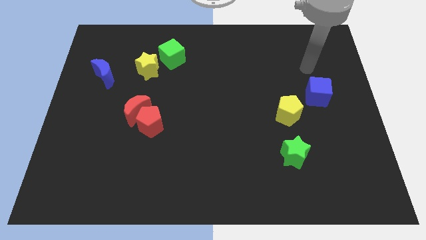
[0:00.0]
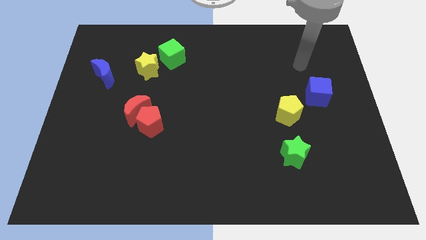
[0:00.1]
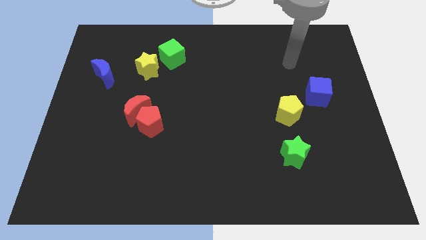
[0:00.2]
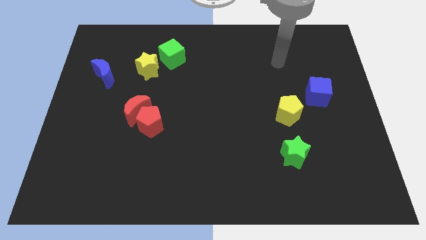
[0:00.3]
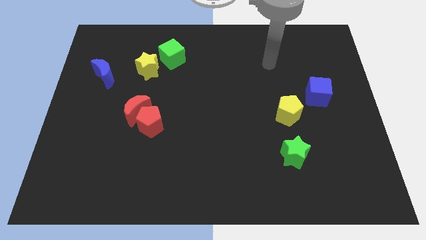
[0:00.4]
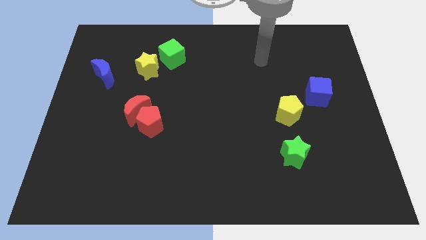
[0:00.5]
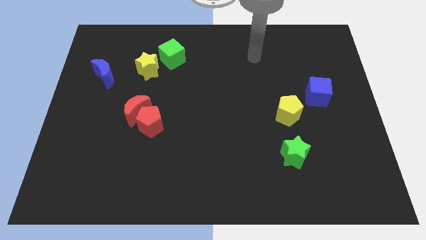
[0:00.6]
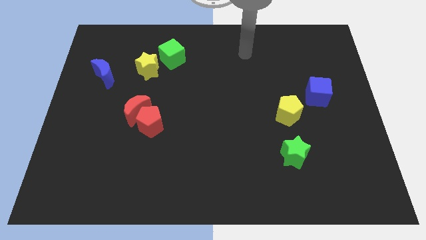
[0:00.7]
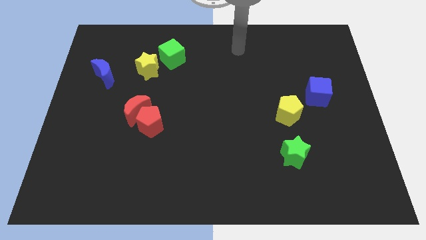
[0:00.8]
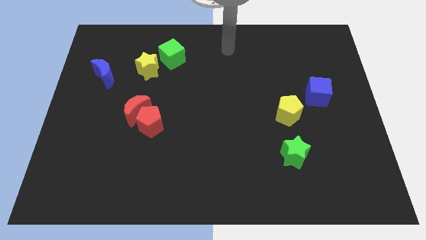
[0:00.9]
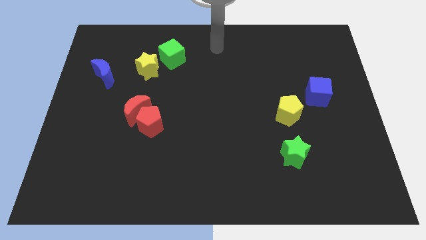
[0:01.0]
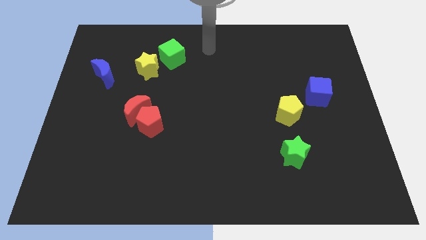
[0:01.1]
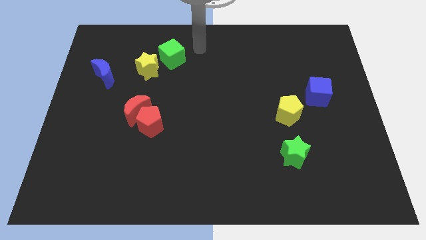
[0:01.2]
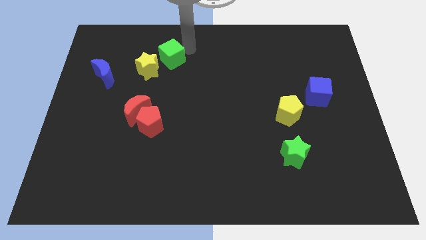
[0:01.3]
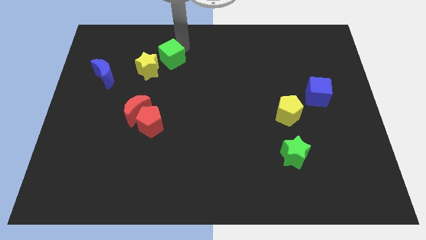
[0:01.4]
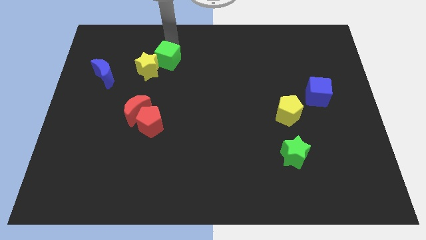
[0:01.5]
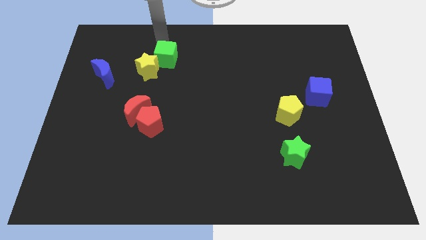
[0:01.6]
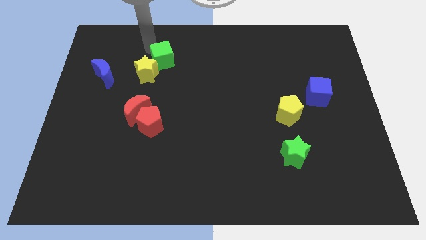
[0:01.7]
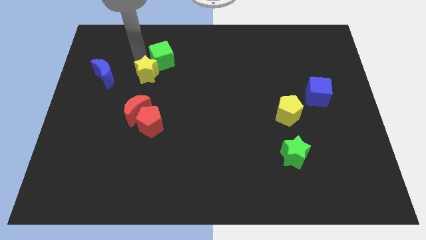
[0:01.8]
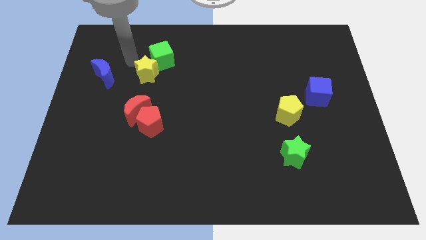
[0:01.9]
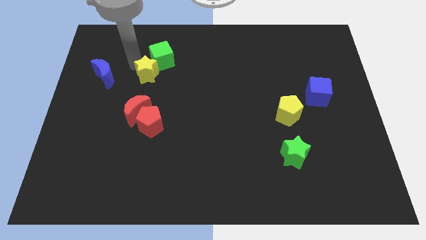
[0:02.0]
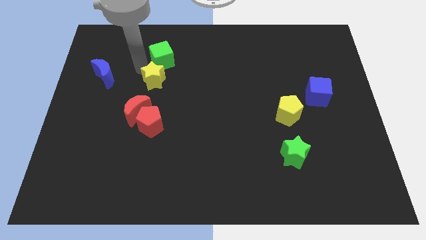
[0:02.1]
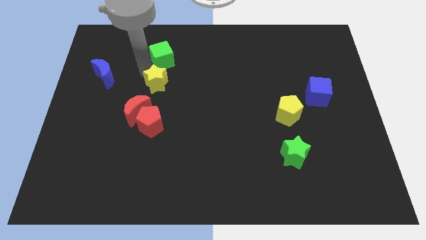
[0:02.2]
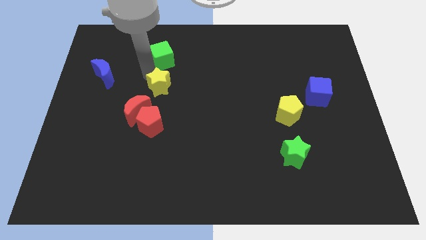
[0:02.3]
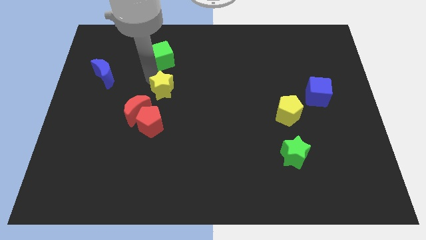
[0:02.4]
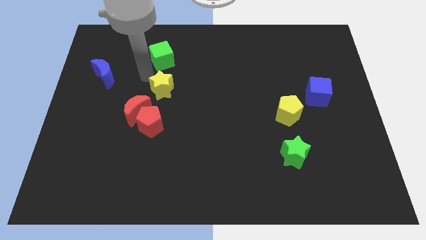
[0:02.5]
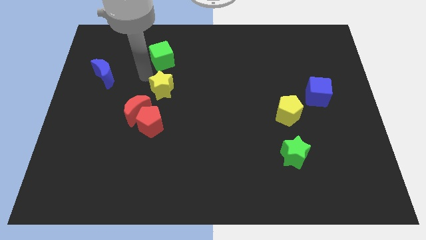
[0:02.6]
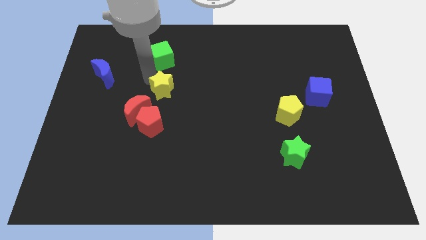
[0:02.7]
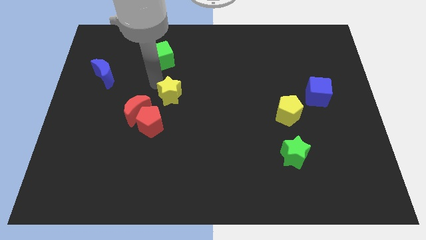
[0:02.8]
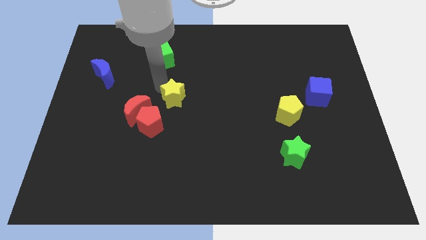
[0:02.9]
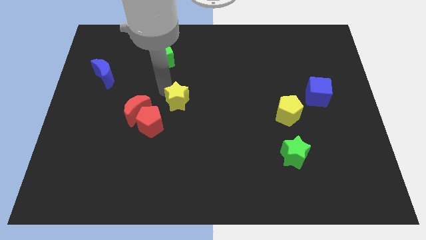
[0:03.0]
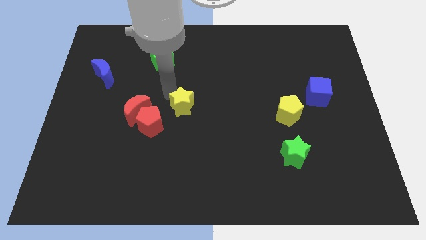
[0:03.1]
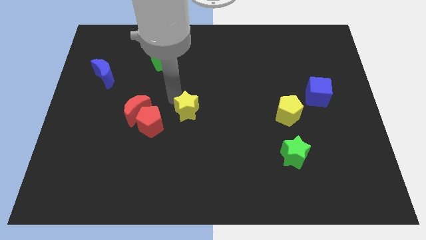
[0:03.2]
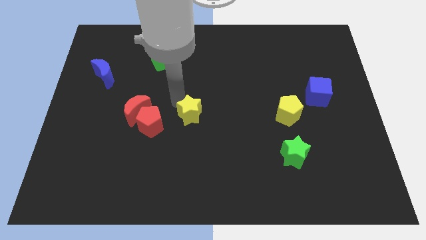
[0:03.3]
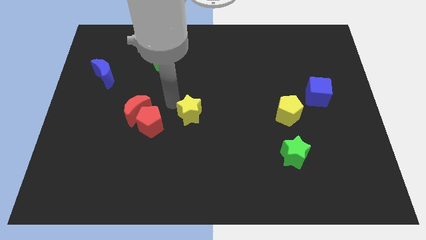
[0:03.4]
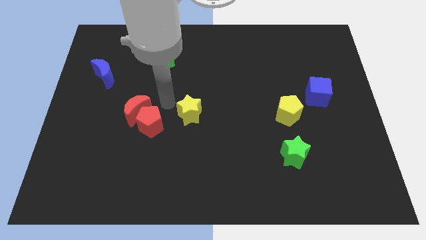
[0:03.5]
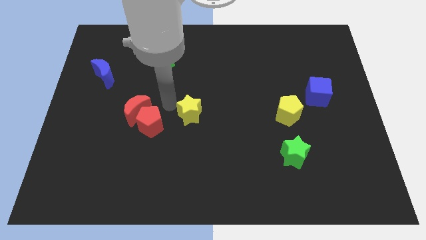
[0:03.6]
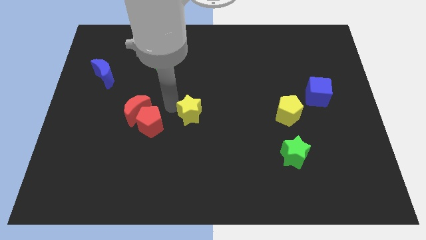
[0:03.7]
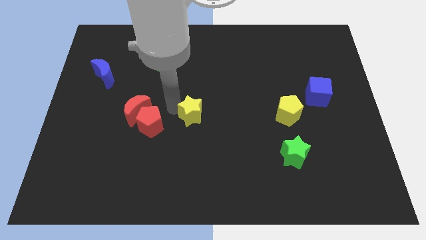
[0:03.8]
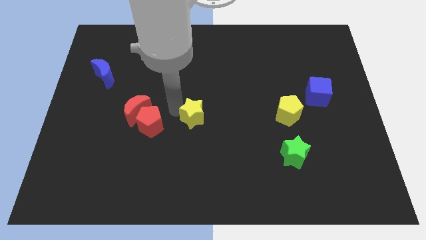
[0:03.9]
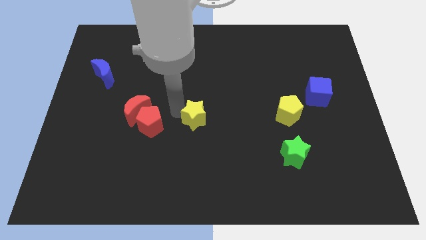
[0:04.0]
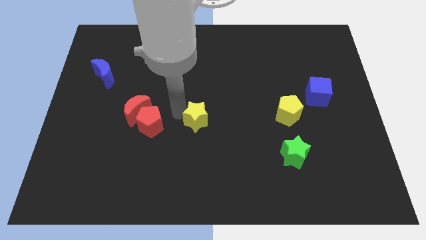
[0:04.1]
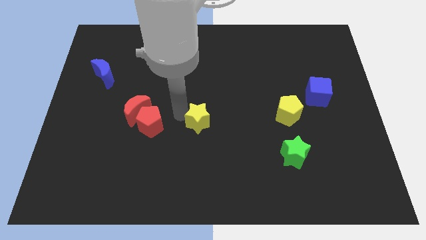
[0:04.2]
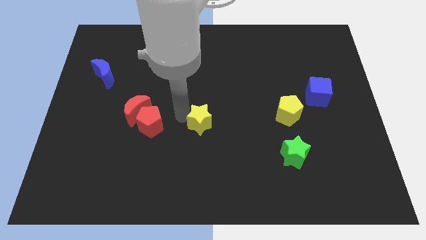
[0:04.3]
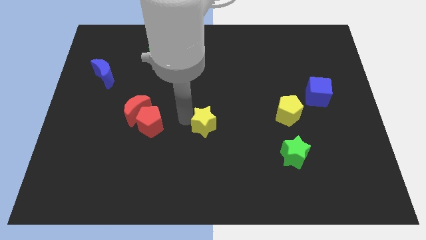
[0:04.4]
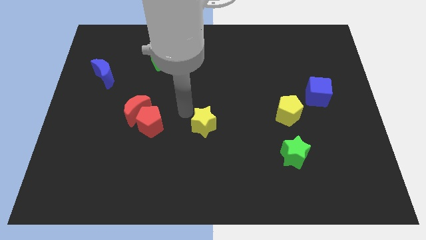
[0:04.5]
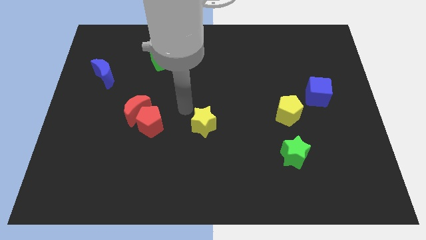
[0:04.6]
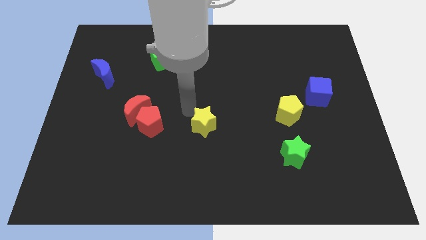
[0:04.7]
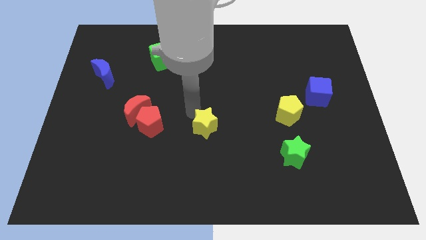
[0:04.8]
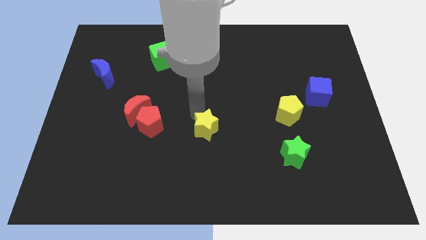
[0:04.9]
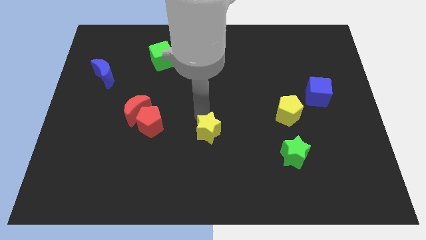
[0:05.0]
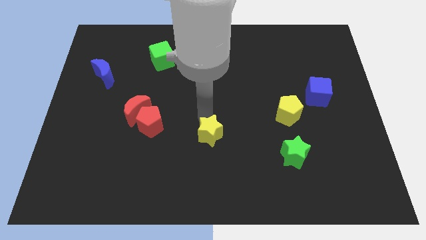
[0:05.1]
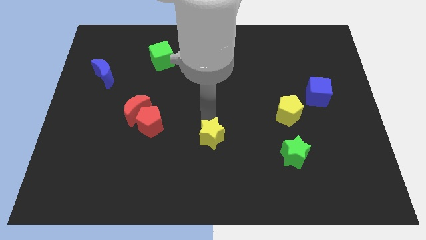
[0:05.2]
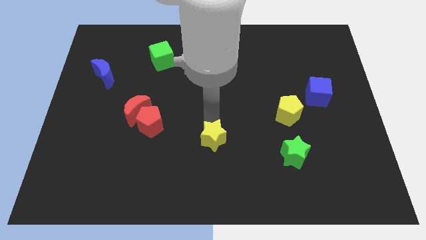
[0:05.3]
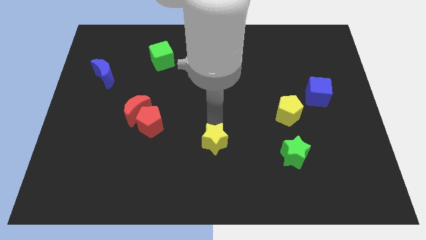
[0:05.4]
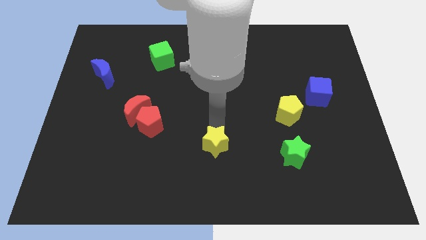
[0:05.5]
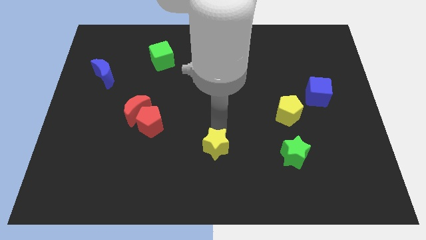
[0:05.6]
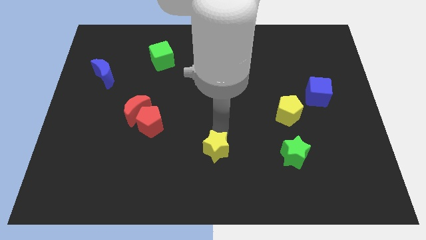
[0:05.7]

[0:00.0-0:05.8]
put the yellow star left of the green star
